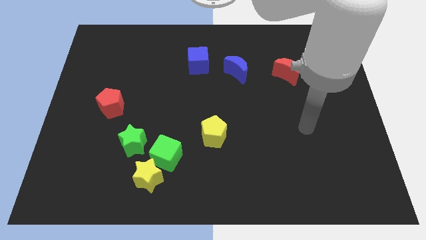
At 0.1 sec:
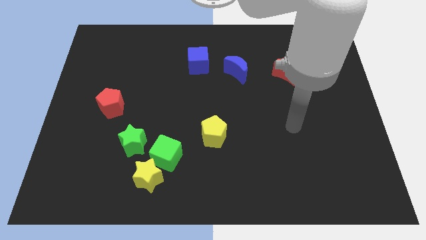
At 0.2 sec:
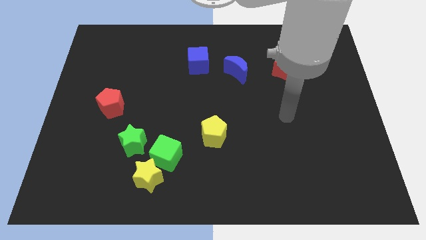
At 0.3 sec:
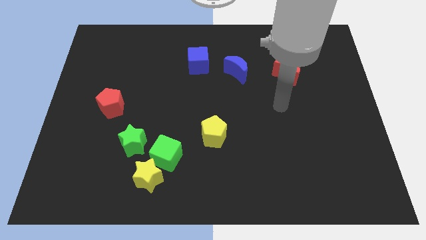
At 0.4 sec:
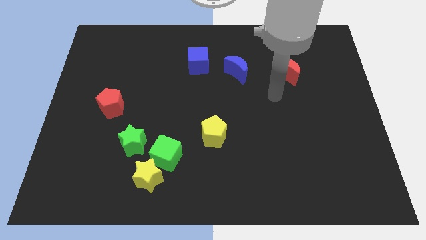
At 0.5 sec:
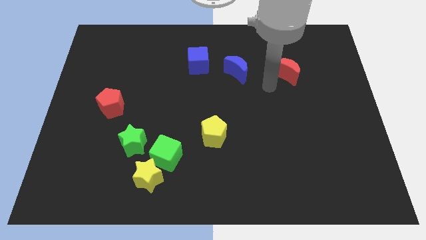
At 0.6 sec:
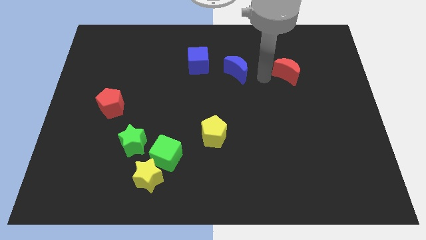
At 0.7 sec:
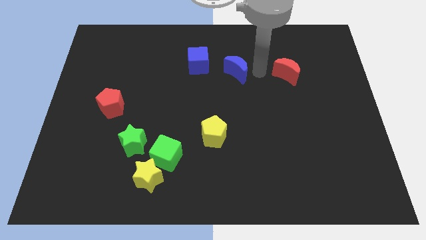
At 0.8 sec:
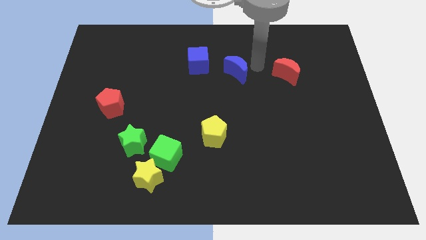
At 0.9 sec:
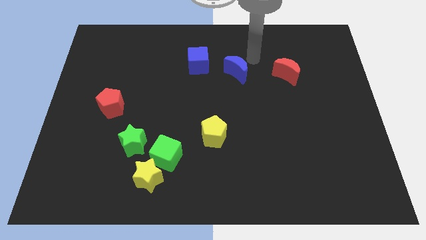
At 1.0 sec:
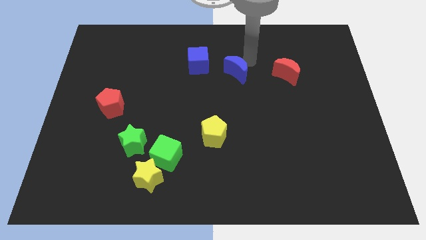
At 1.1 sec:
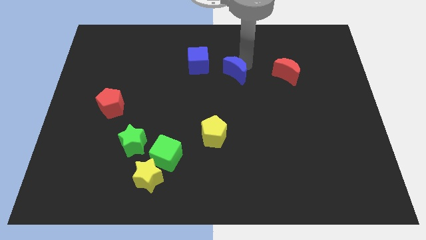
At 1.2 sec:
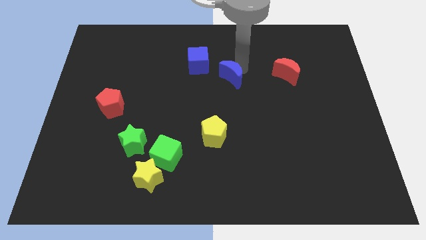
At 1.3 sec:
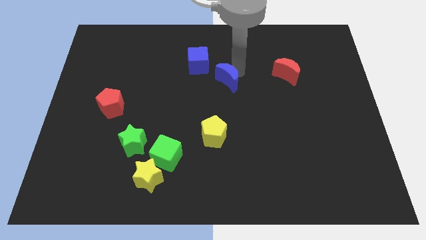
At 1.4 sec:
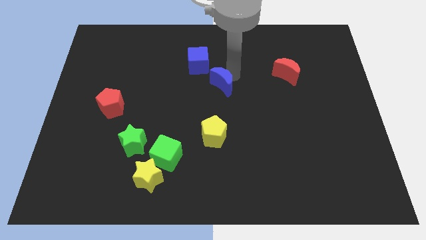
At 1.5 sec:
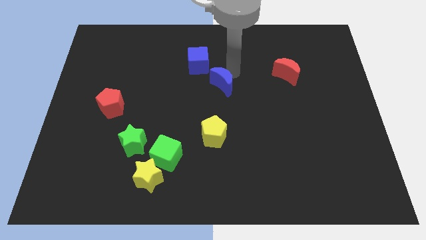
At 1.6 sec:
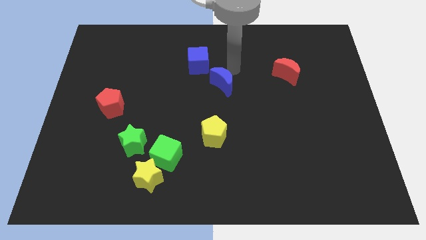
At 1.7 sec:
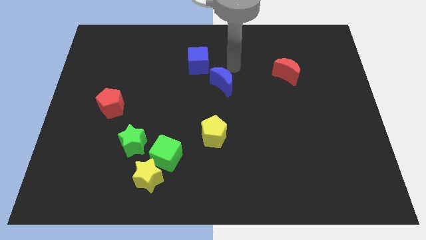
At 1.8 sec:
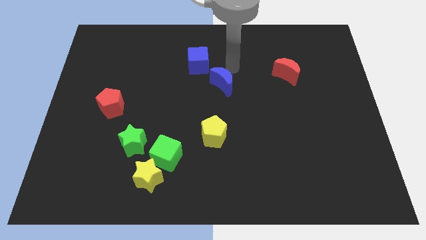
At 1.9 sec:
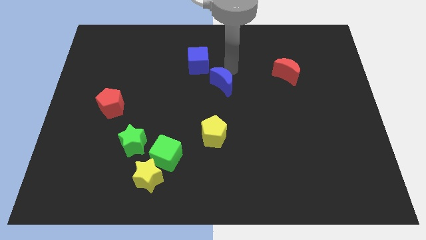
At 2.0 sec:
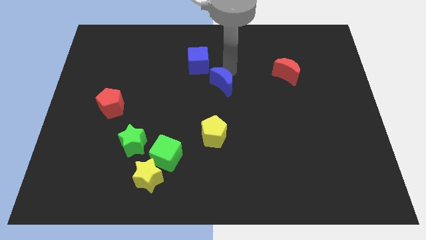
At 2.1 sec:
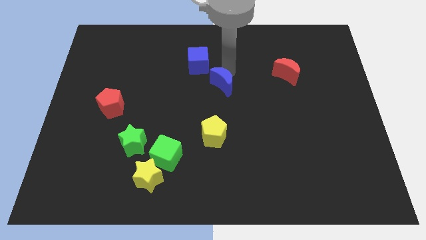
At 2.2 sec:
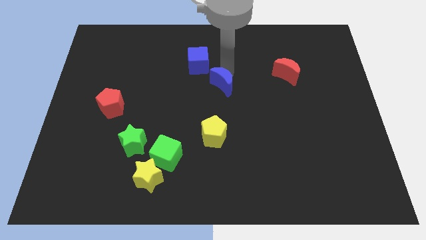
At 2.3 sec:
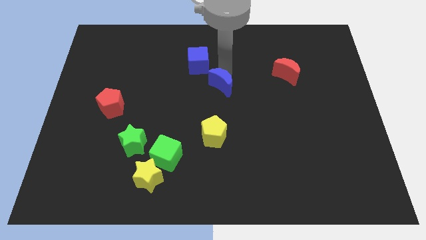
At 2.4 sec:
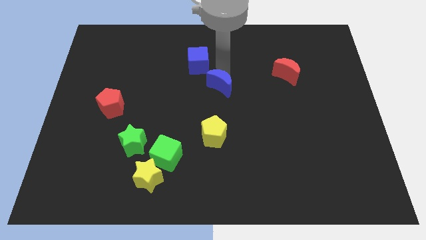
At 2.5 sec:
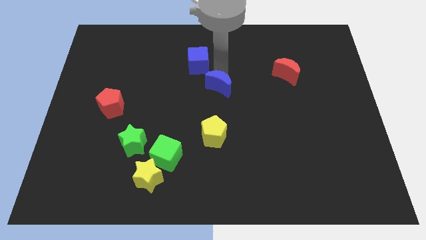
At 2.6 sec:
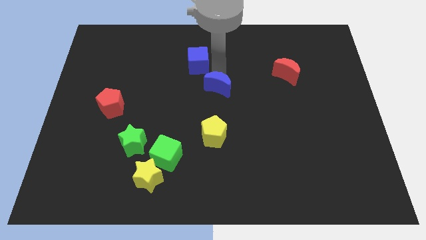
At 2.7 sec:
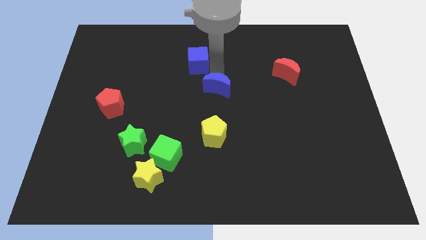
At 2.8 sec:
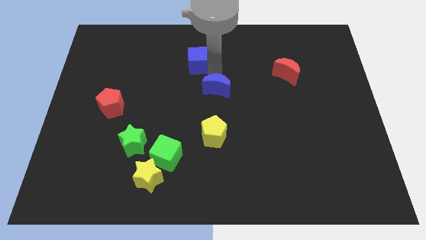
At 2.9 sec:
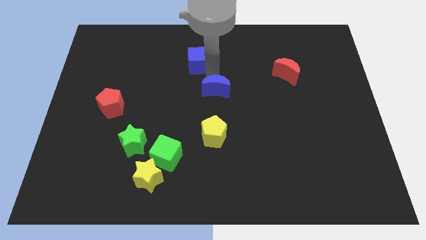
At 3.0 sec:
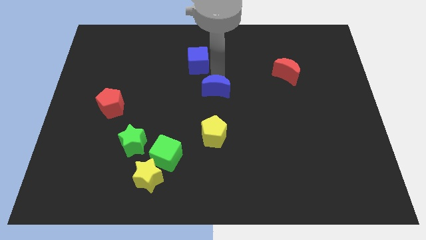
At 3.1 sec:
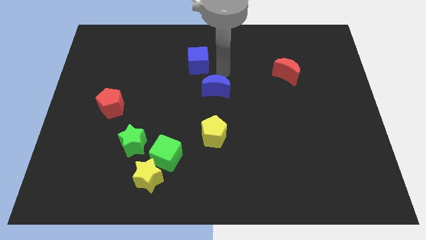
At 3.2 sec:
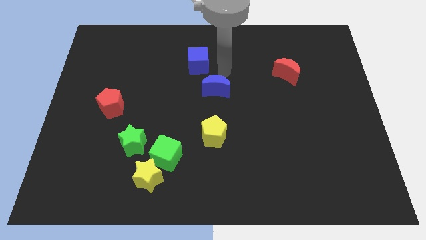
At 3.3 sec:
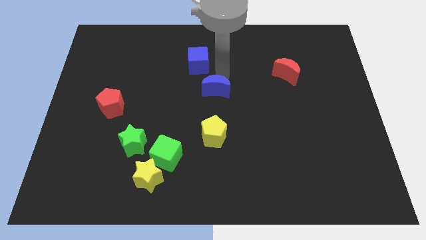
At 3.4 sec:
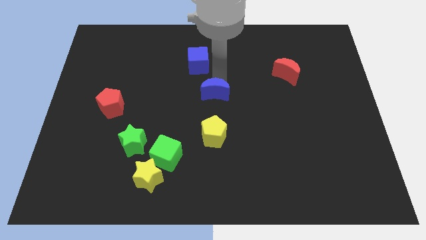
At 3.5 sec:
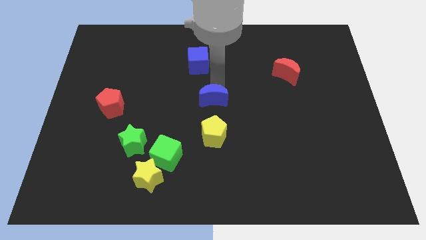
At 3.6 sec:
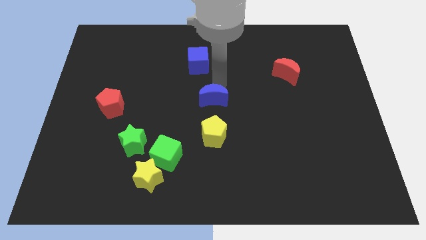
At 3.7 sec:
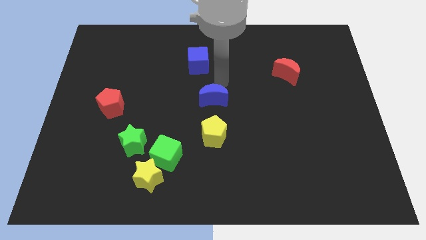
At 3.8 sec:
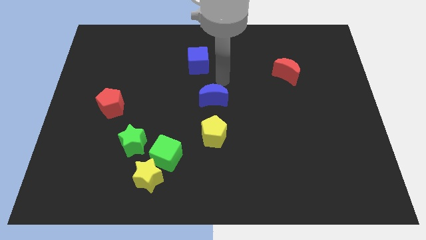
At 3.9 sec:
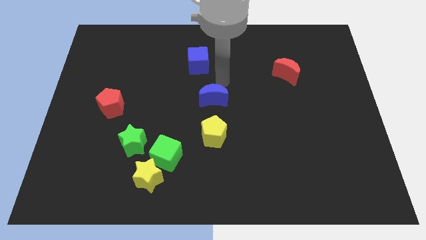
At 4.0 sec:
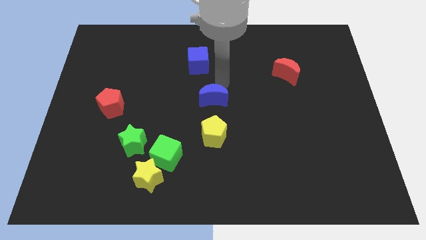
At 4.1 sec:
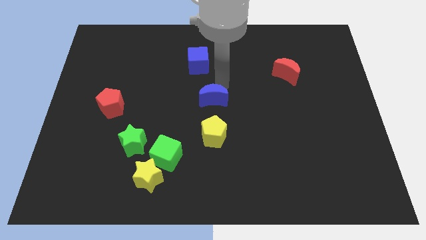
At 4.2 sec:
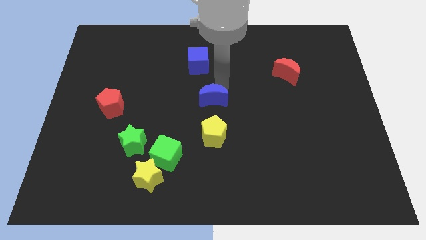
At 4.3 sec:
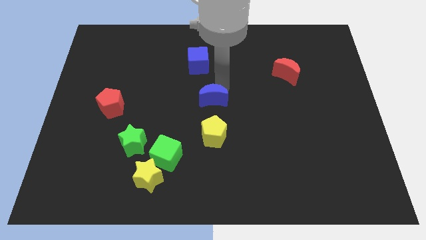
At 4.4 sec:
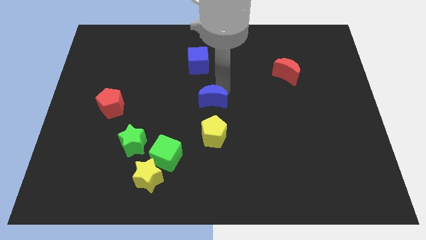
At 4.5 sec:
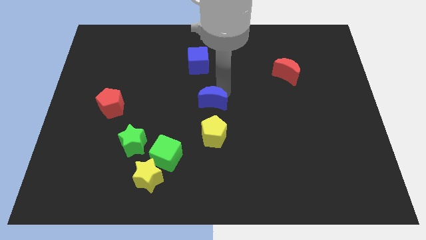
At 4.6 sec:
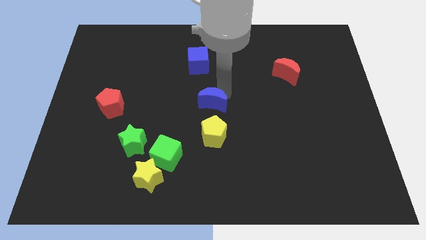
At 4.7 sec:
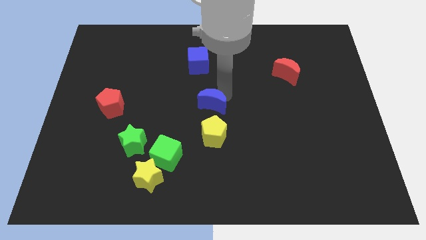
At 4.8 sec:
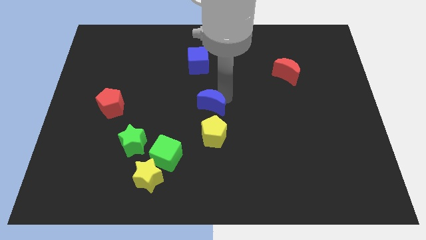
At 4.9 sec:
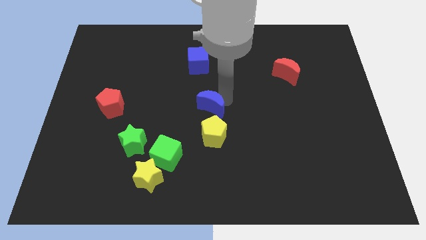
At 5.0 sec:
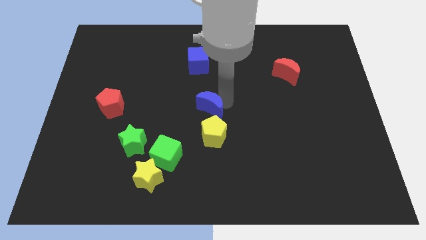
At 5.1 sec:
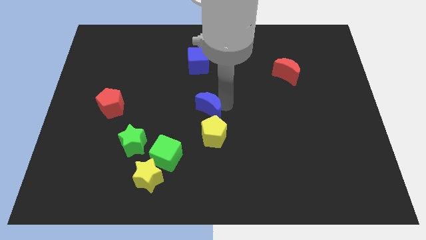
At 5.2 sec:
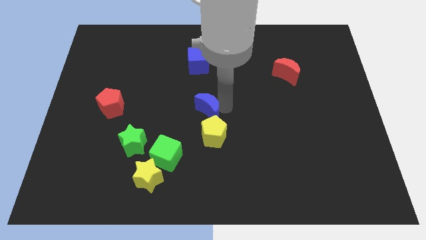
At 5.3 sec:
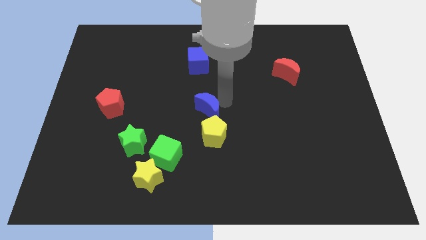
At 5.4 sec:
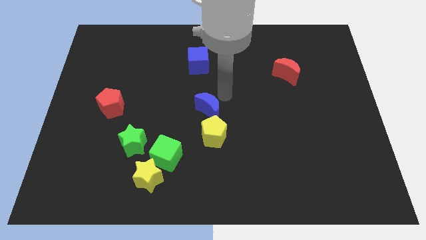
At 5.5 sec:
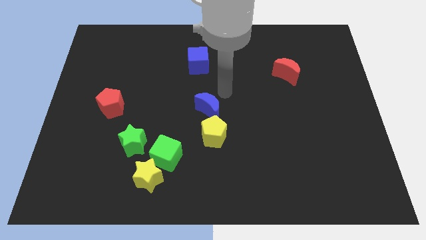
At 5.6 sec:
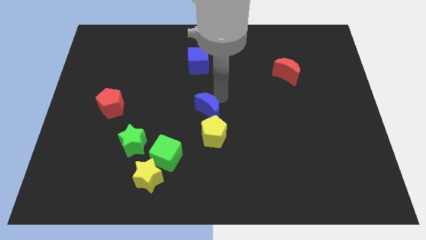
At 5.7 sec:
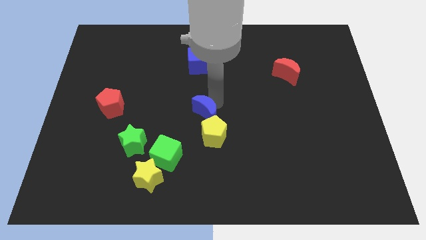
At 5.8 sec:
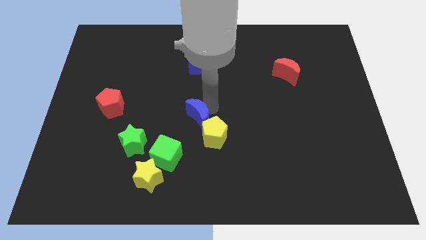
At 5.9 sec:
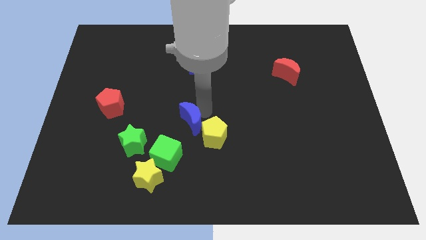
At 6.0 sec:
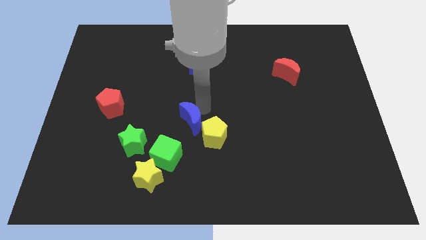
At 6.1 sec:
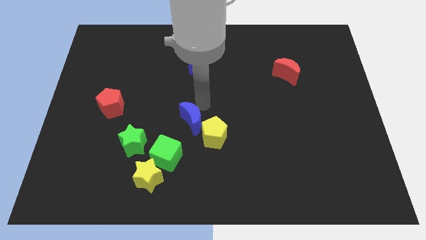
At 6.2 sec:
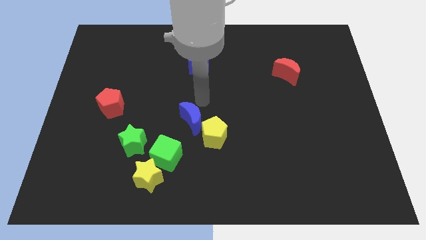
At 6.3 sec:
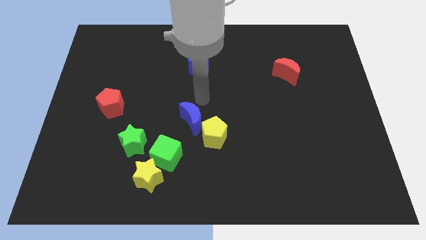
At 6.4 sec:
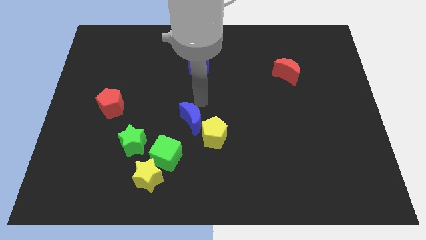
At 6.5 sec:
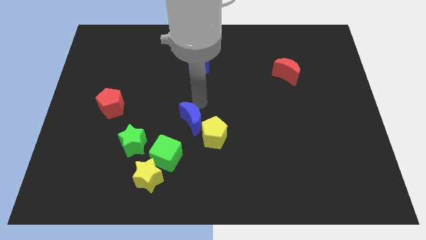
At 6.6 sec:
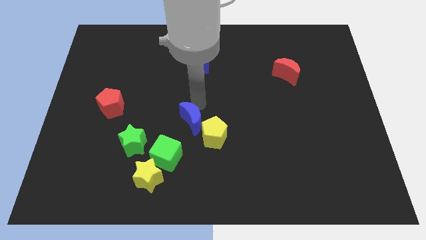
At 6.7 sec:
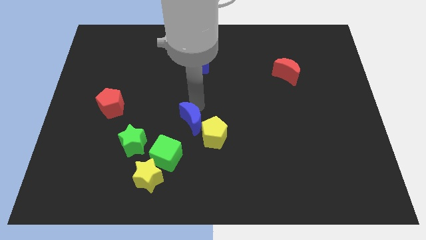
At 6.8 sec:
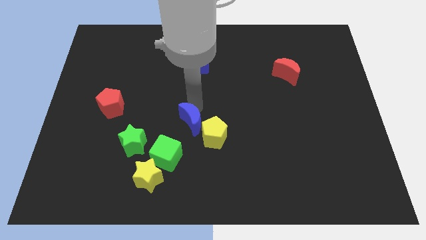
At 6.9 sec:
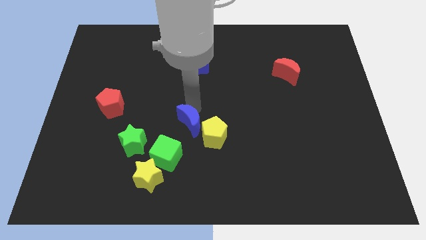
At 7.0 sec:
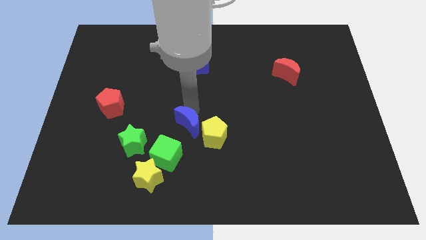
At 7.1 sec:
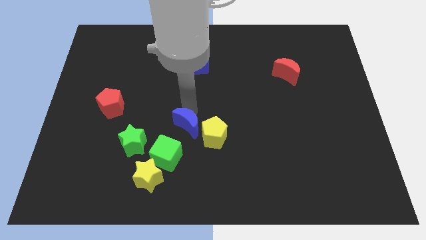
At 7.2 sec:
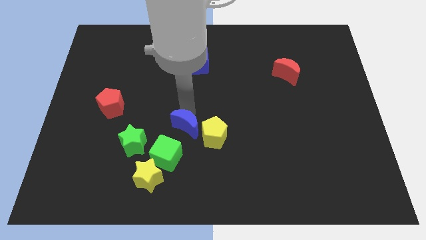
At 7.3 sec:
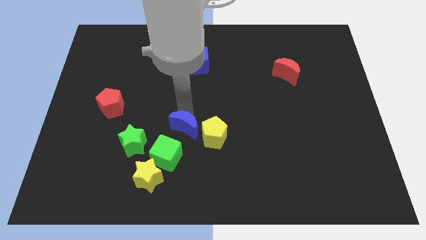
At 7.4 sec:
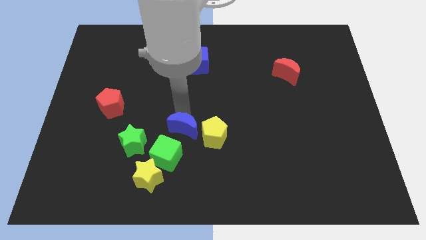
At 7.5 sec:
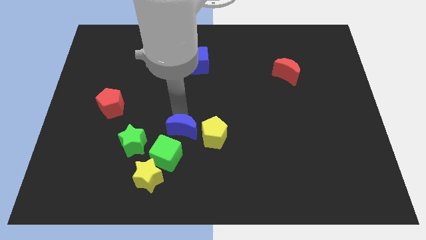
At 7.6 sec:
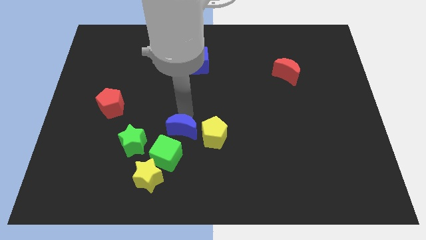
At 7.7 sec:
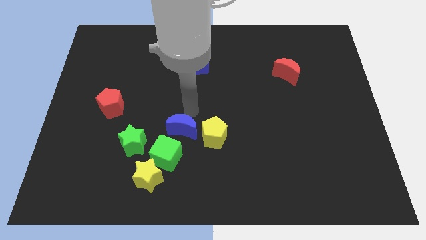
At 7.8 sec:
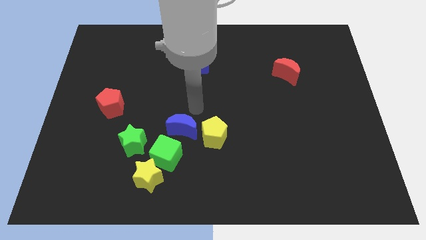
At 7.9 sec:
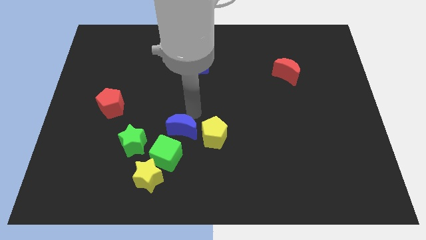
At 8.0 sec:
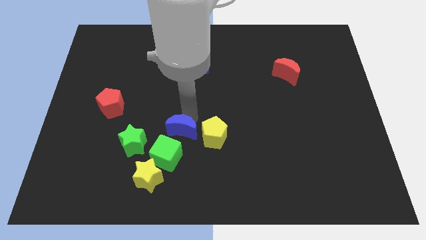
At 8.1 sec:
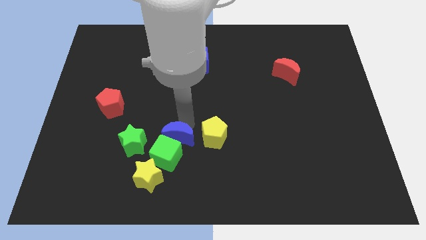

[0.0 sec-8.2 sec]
slide the blue moon next to the green cube

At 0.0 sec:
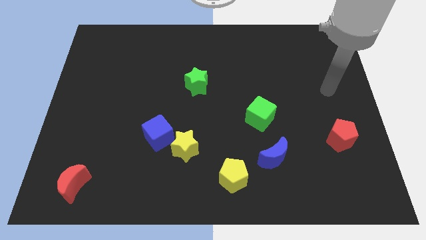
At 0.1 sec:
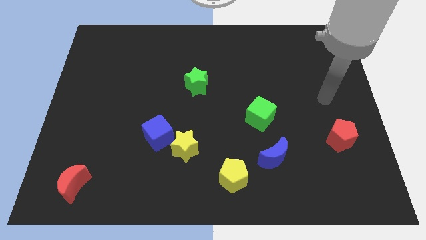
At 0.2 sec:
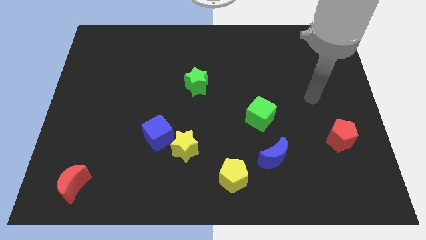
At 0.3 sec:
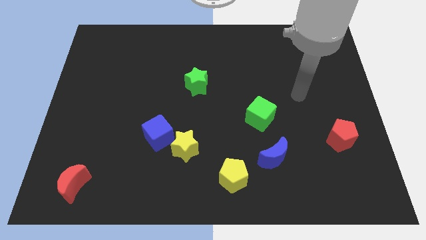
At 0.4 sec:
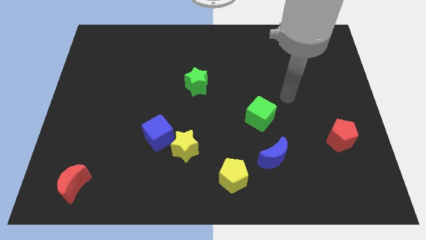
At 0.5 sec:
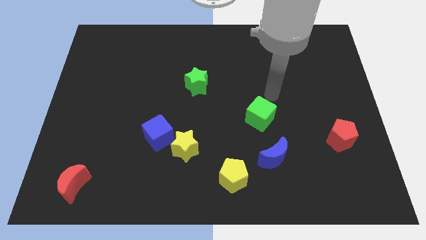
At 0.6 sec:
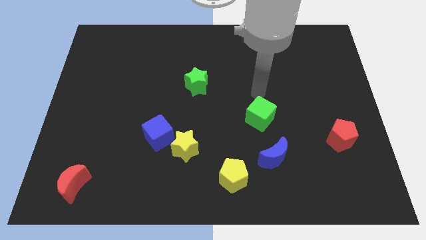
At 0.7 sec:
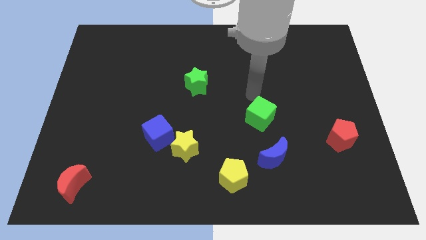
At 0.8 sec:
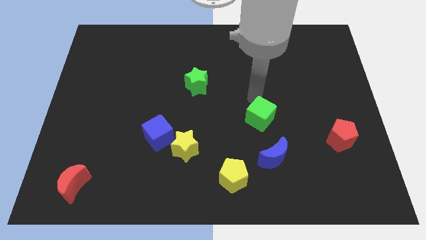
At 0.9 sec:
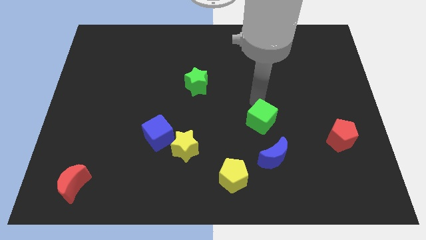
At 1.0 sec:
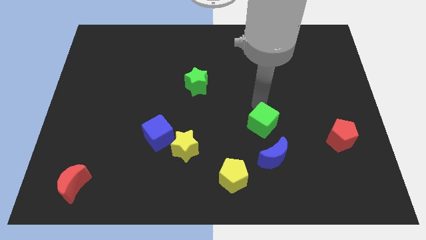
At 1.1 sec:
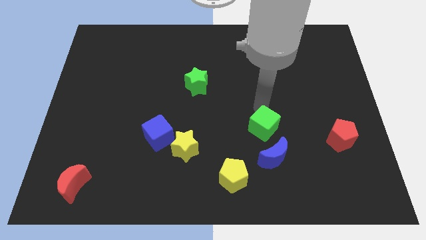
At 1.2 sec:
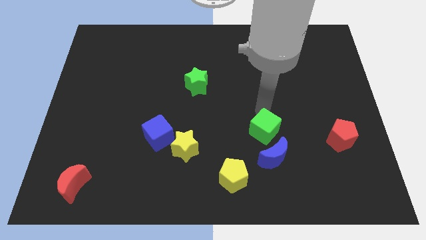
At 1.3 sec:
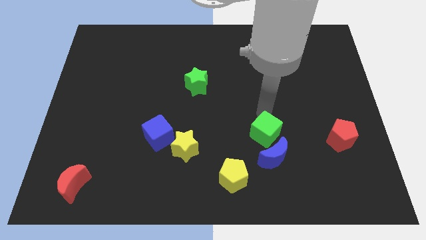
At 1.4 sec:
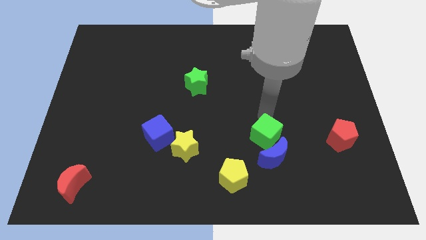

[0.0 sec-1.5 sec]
push the green cube towards the blue moon
